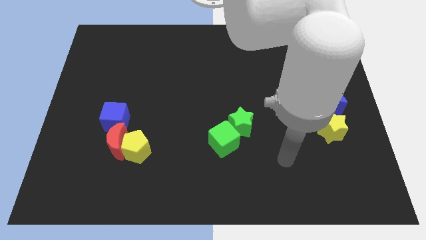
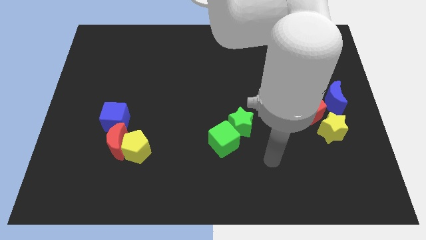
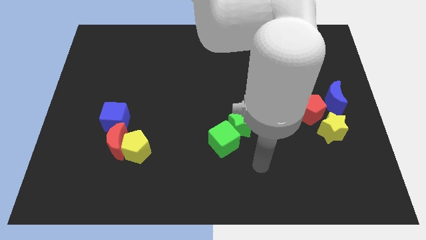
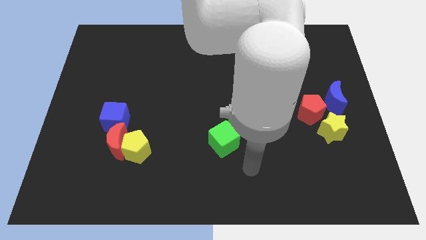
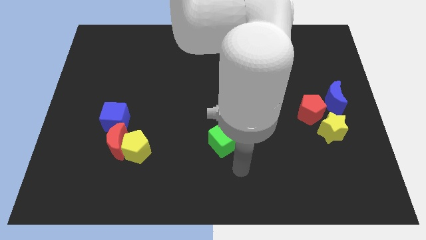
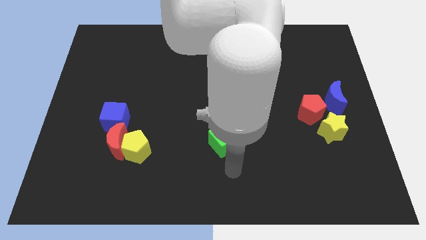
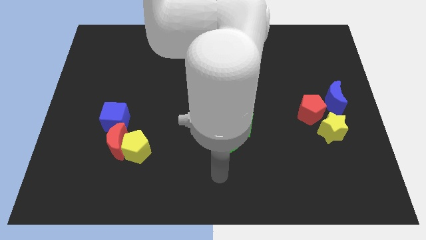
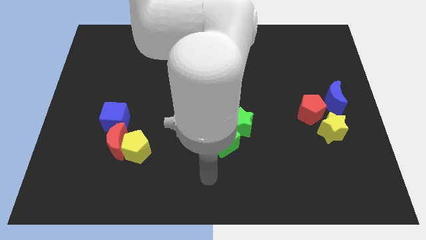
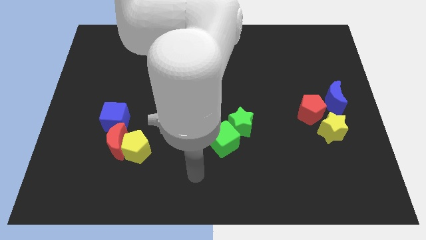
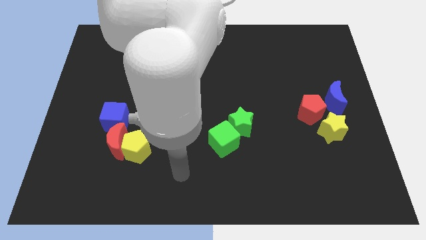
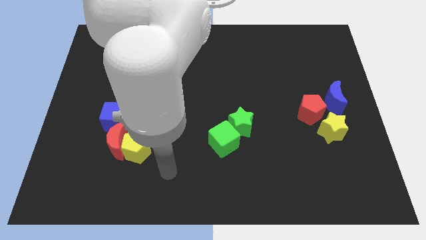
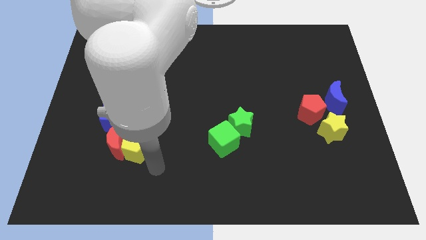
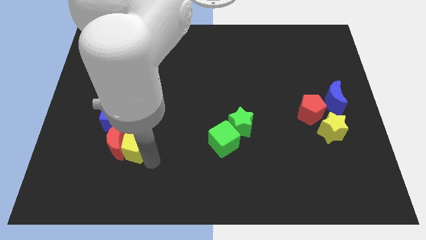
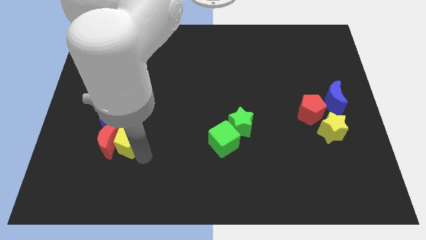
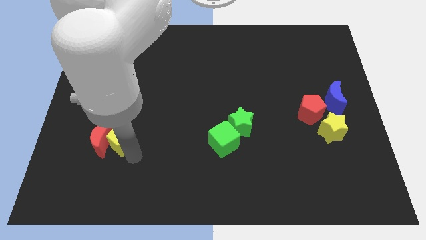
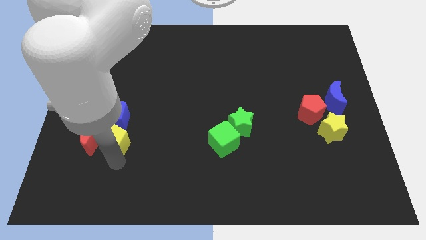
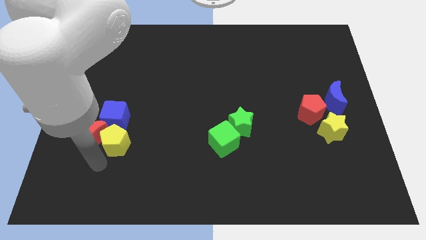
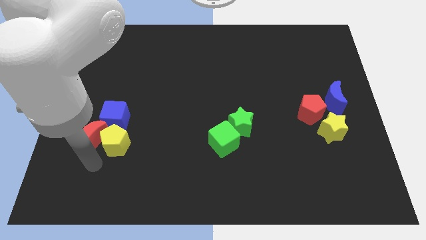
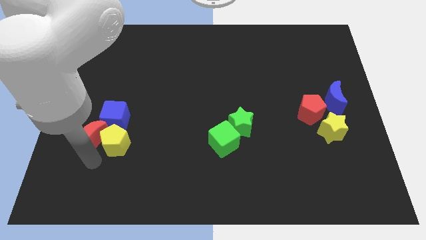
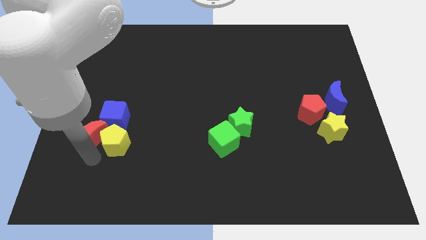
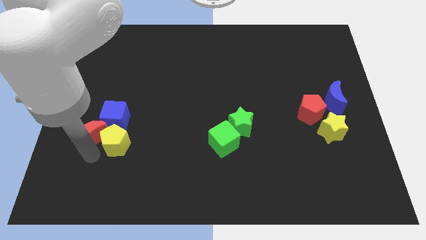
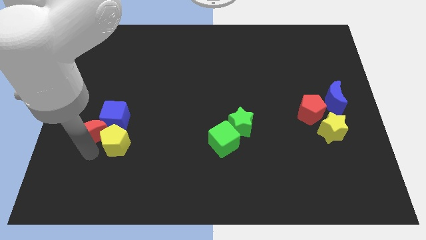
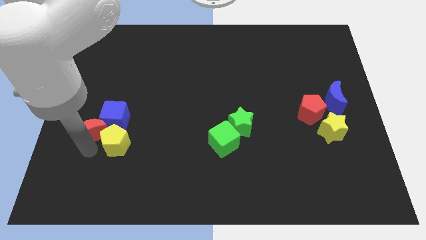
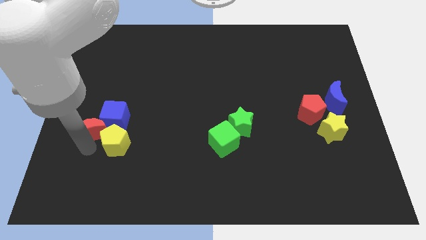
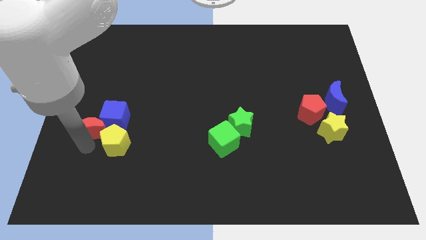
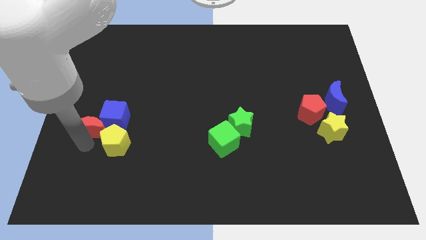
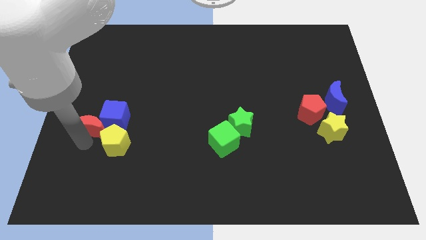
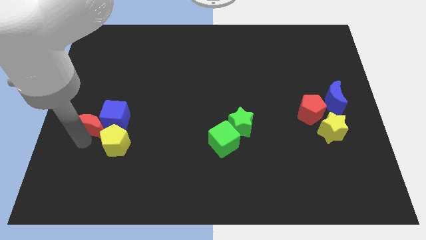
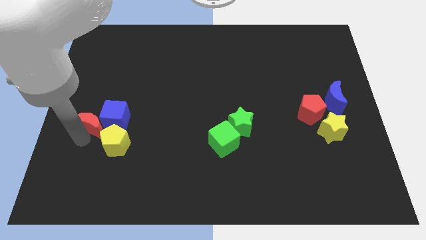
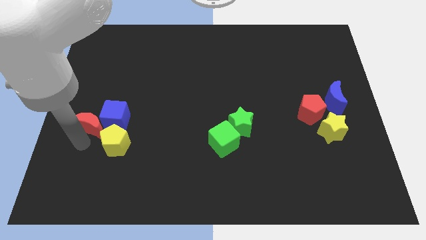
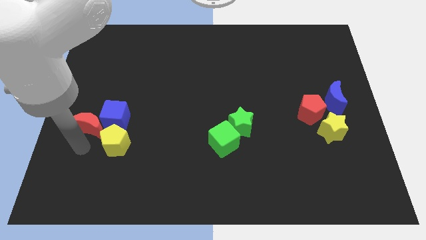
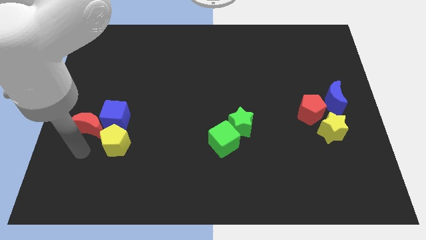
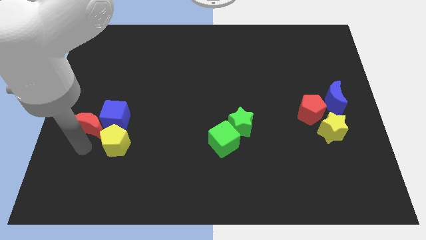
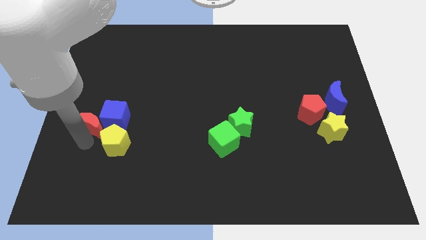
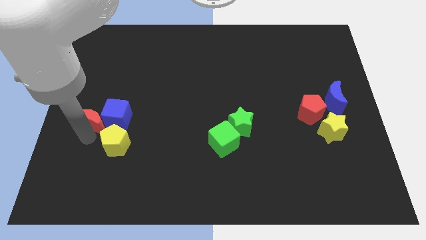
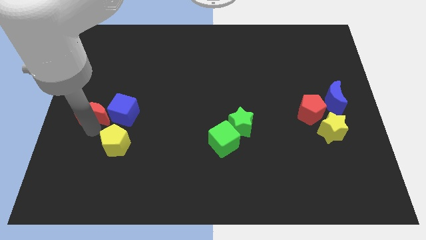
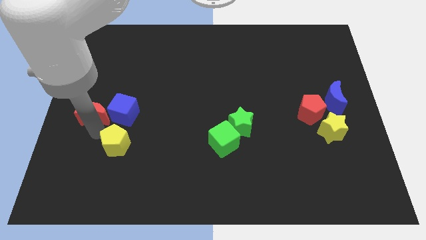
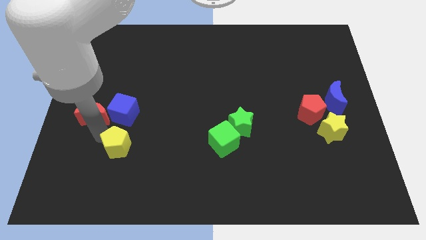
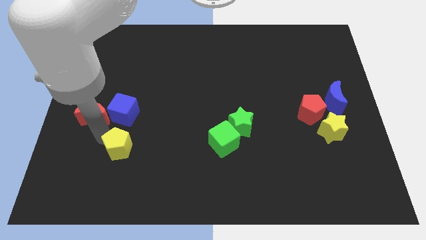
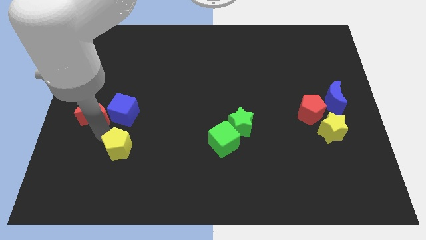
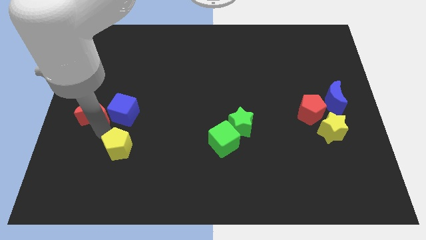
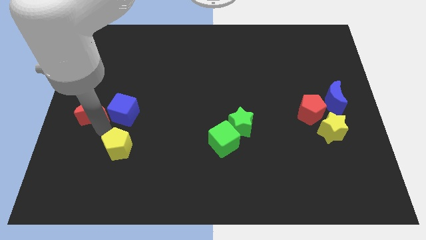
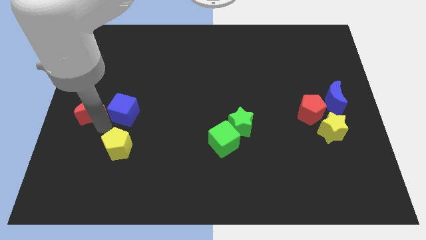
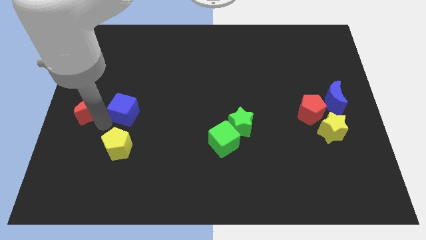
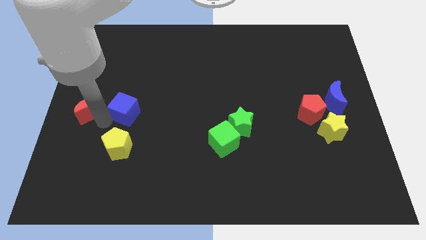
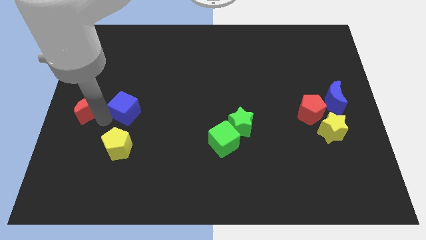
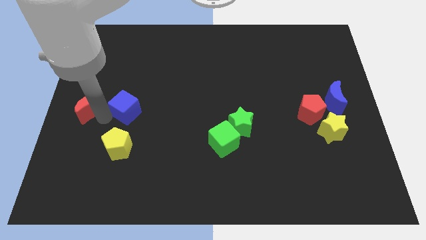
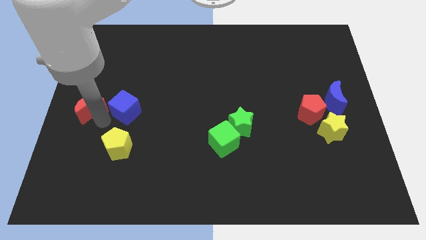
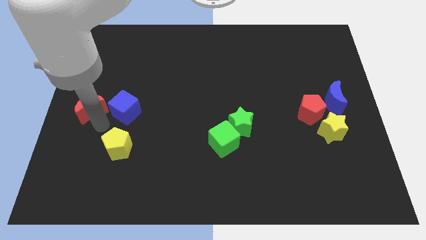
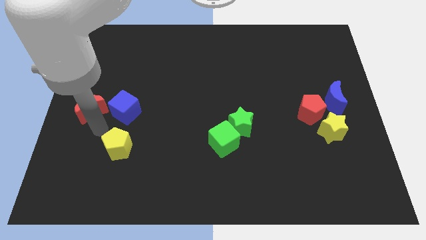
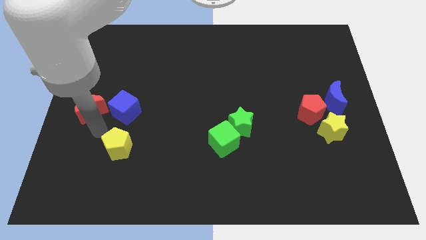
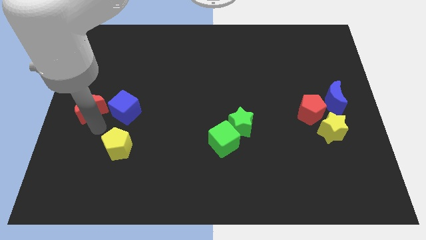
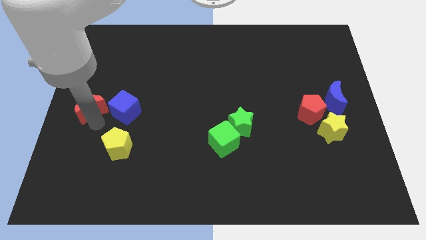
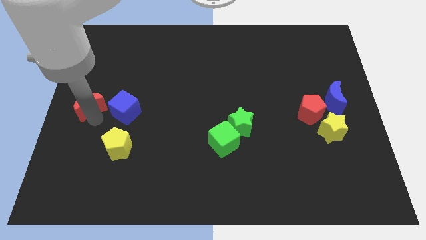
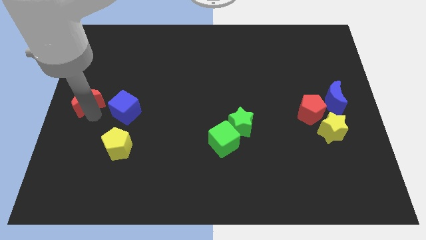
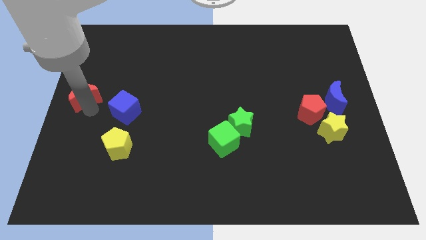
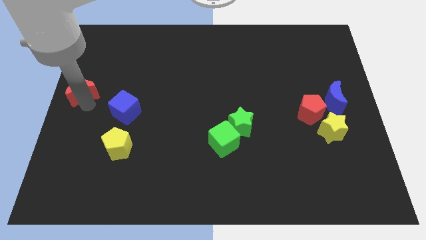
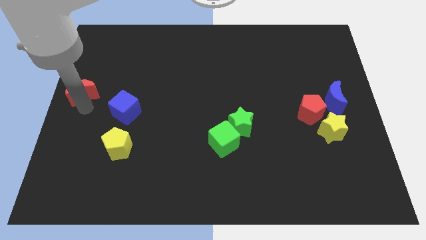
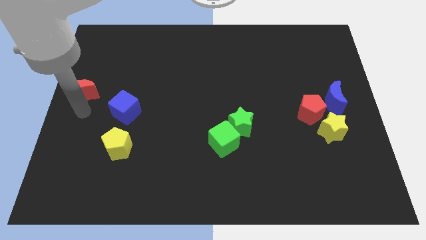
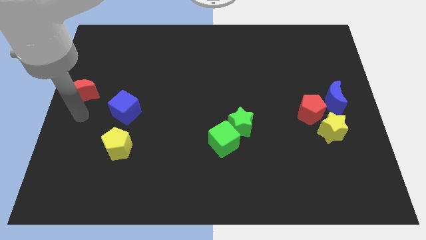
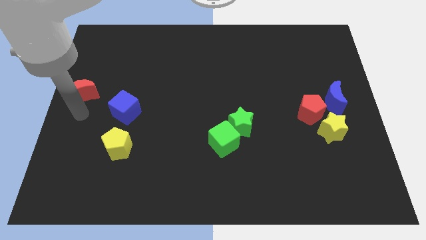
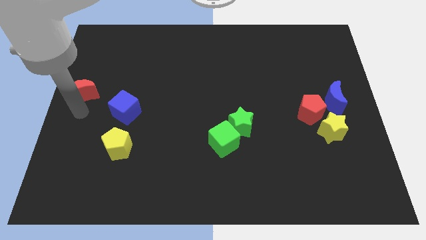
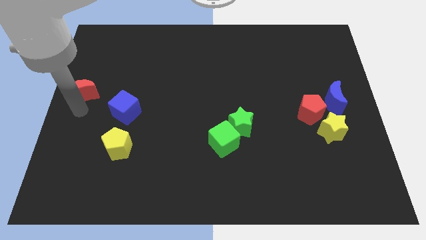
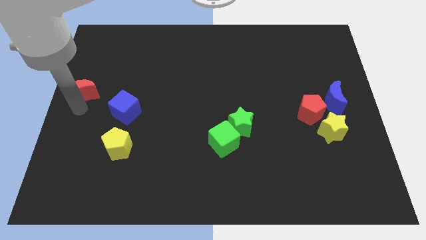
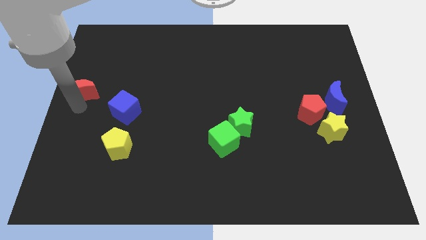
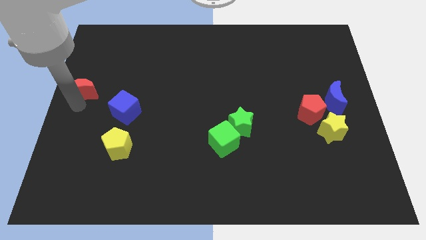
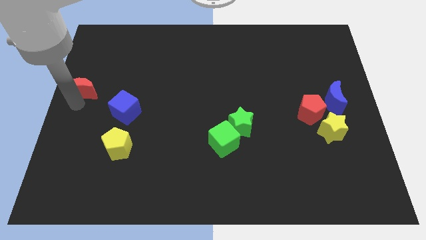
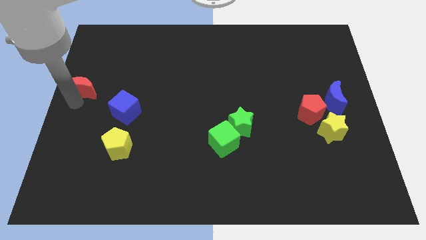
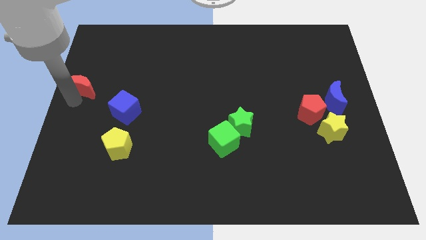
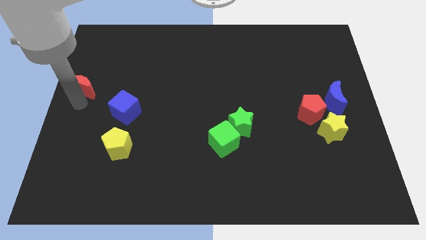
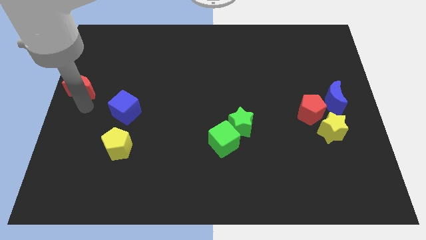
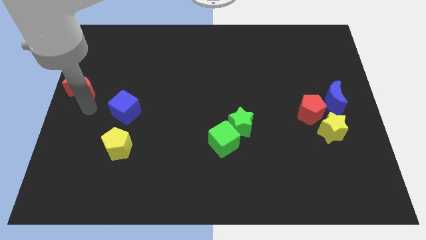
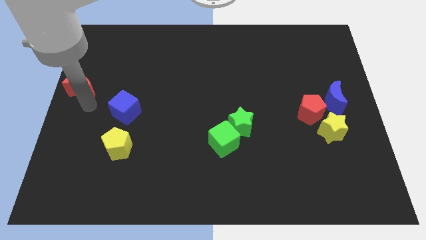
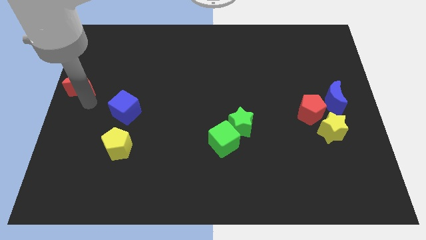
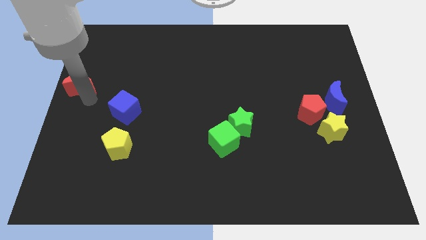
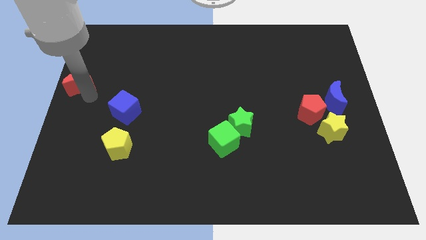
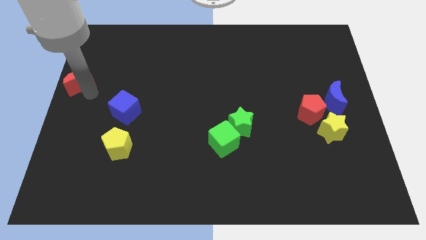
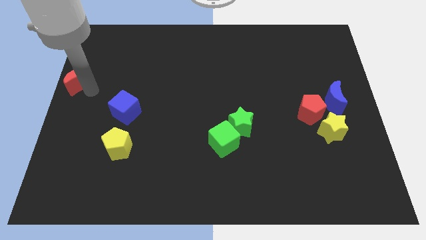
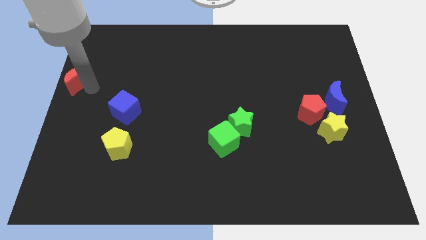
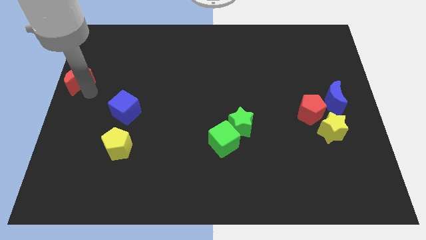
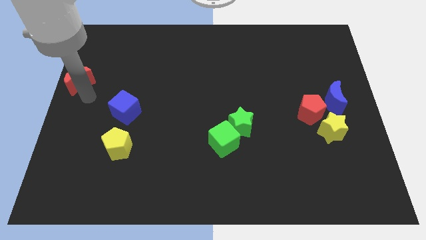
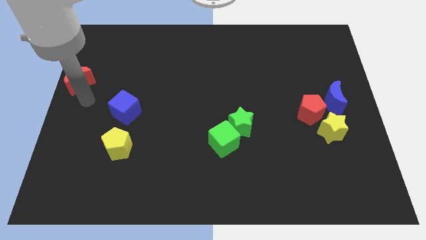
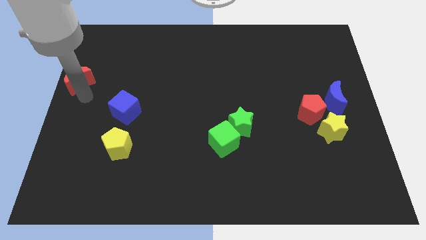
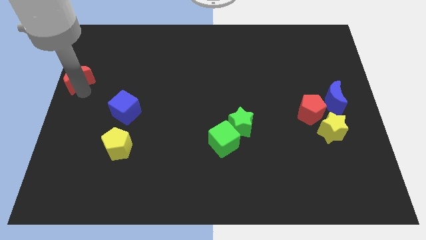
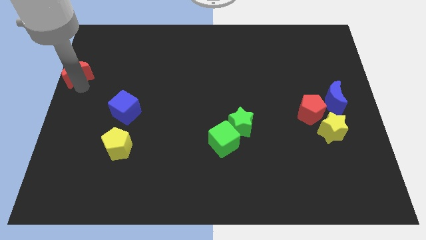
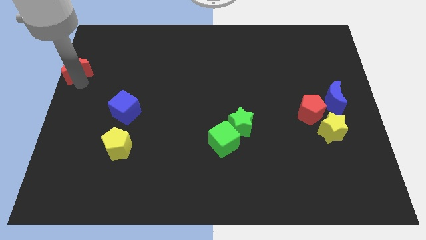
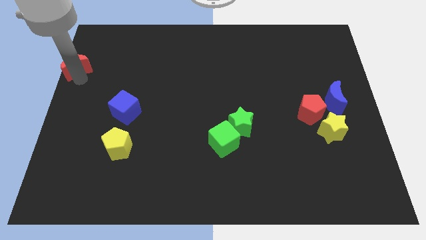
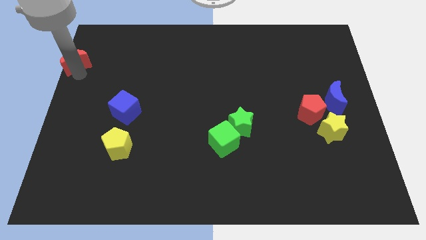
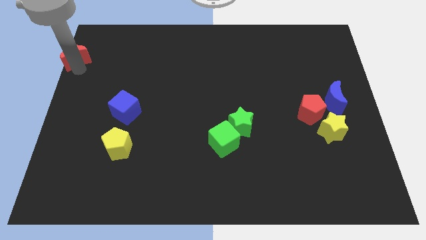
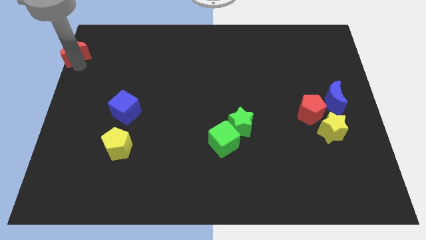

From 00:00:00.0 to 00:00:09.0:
move the red moon to the top left of the board
